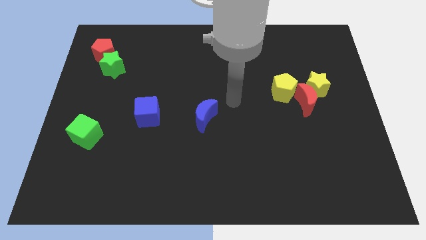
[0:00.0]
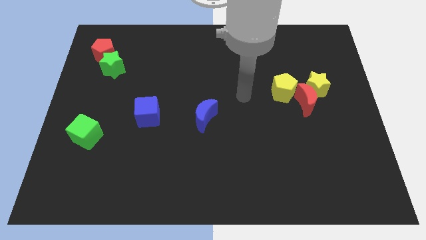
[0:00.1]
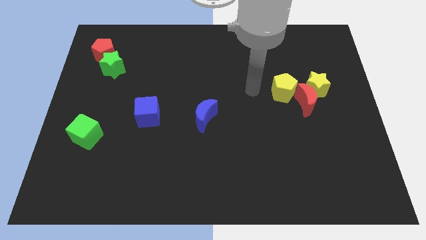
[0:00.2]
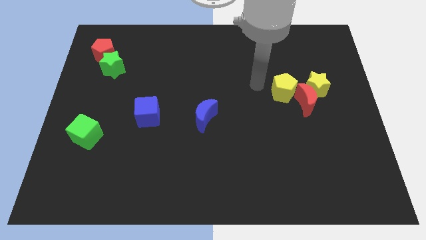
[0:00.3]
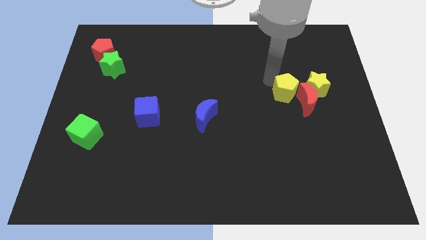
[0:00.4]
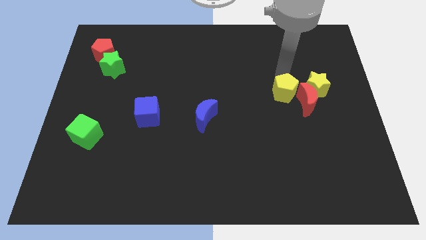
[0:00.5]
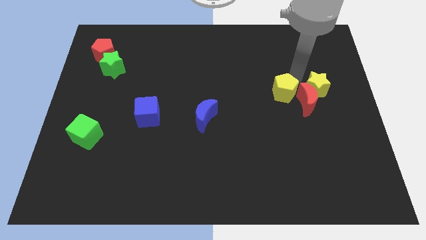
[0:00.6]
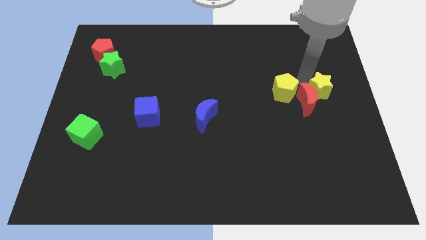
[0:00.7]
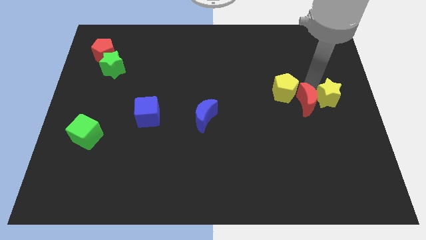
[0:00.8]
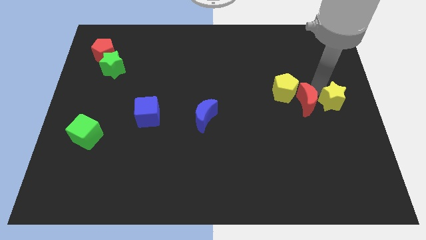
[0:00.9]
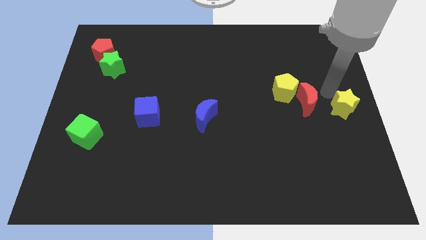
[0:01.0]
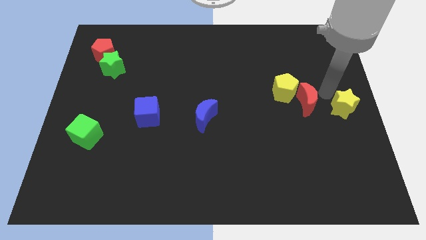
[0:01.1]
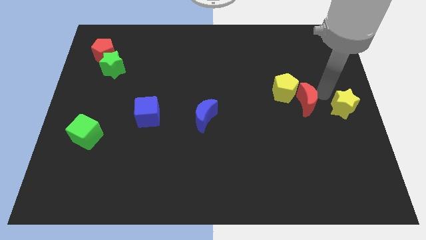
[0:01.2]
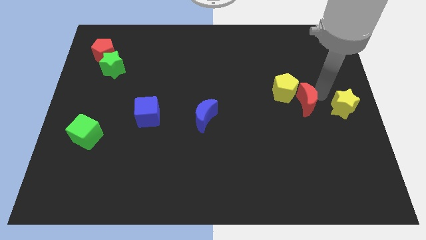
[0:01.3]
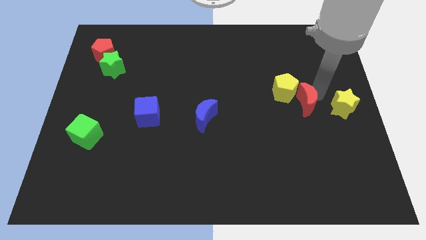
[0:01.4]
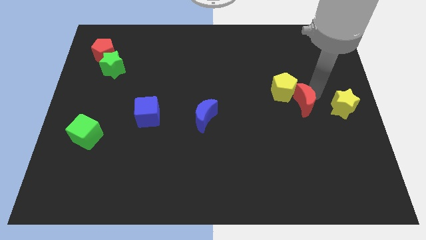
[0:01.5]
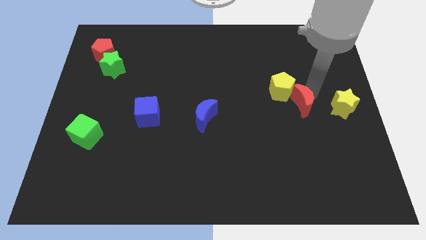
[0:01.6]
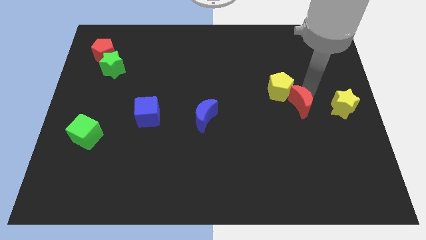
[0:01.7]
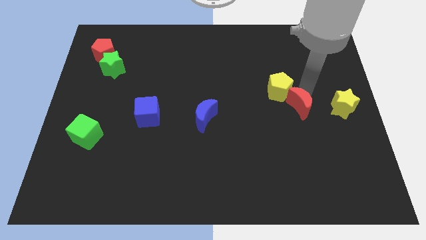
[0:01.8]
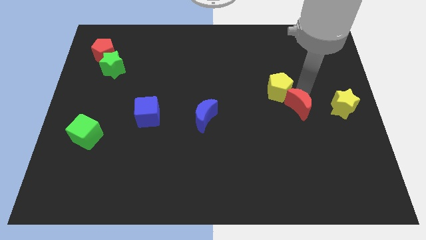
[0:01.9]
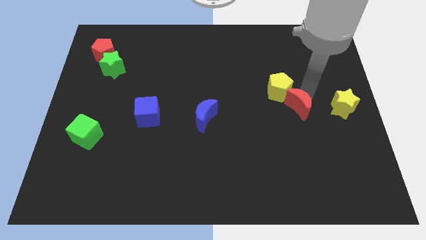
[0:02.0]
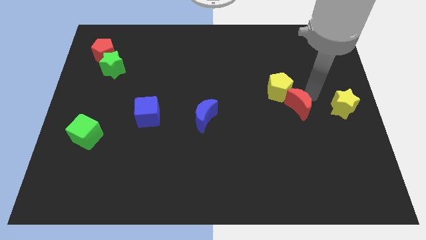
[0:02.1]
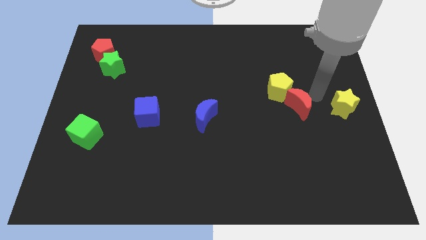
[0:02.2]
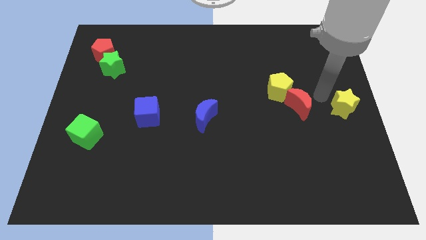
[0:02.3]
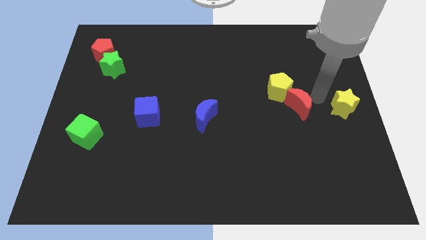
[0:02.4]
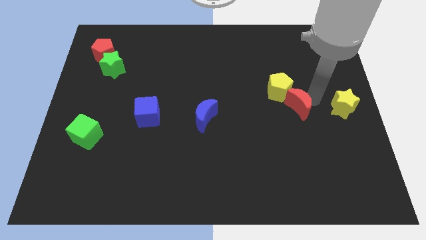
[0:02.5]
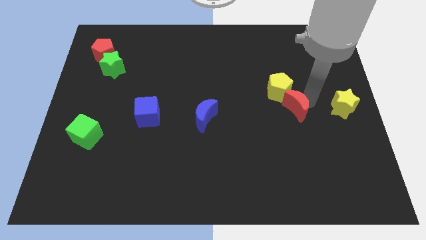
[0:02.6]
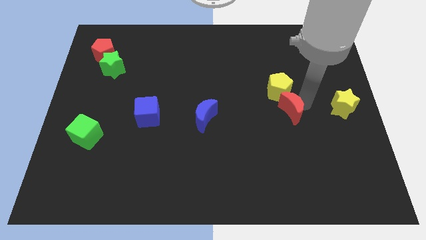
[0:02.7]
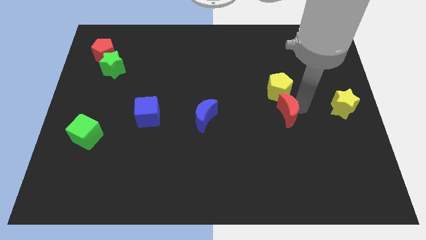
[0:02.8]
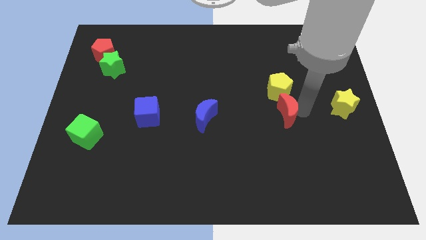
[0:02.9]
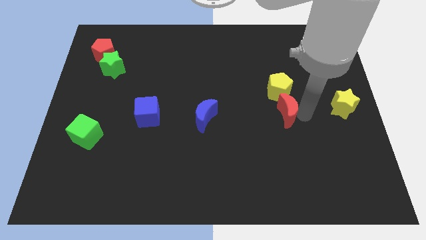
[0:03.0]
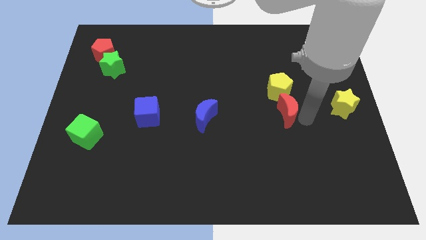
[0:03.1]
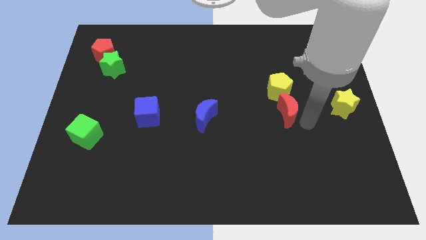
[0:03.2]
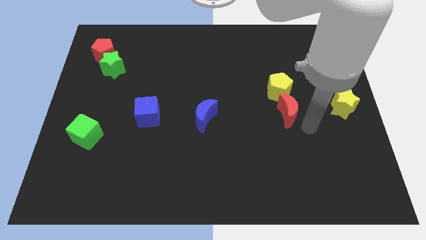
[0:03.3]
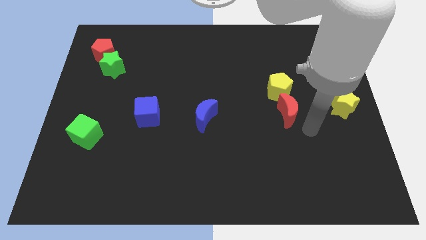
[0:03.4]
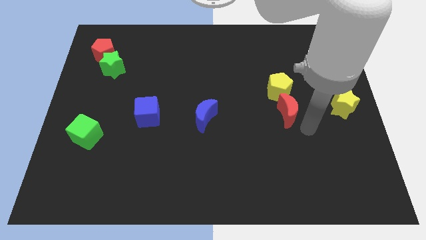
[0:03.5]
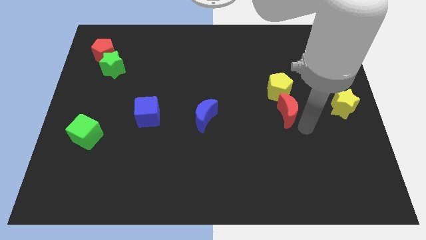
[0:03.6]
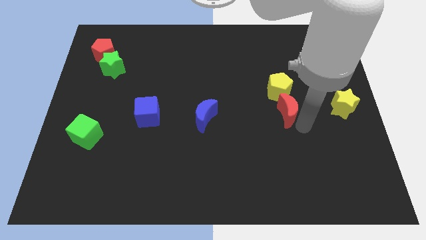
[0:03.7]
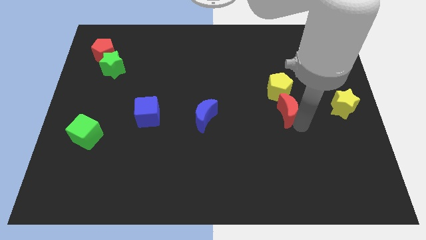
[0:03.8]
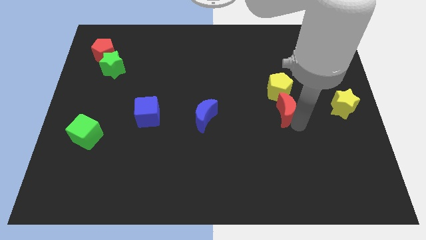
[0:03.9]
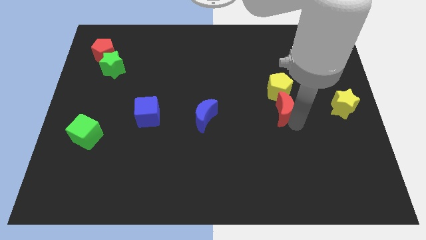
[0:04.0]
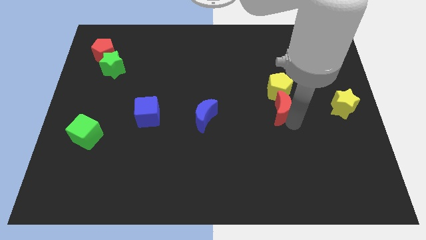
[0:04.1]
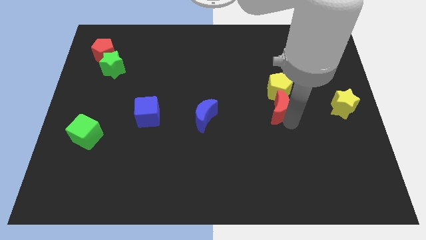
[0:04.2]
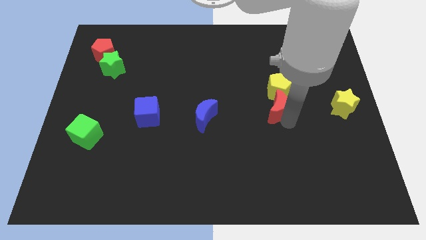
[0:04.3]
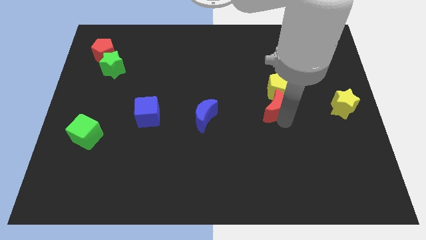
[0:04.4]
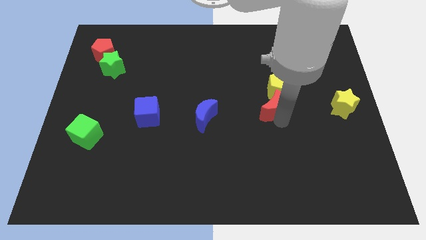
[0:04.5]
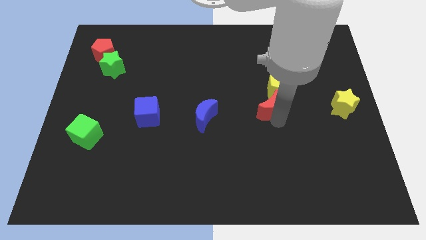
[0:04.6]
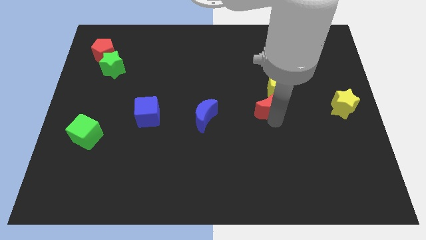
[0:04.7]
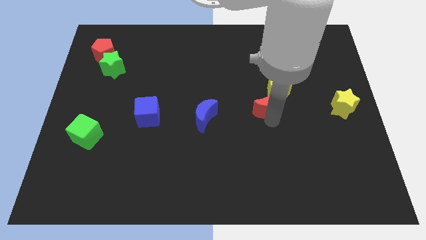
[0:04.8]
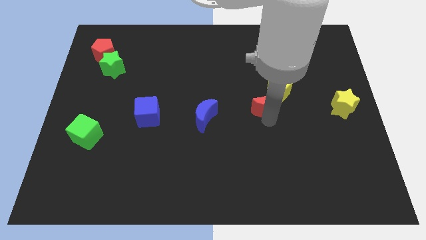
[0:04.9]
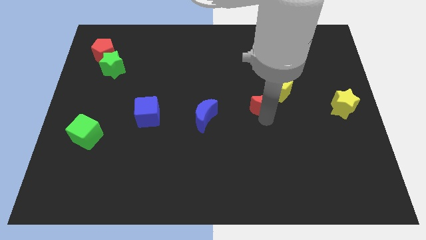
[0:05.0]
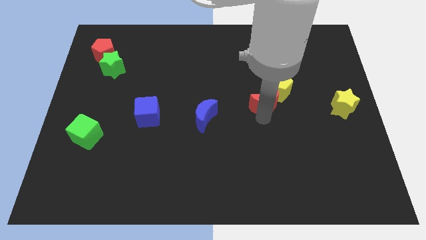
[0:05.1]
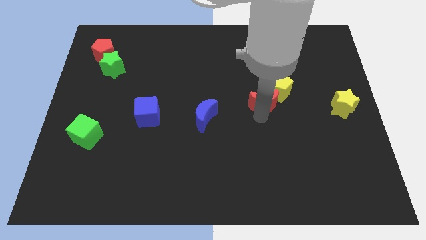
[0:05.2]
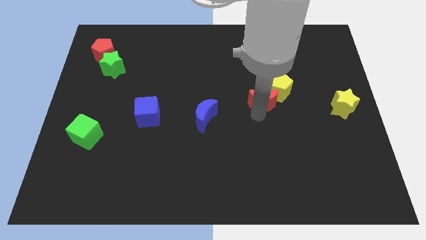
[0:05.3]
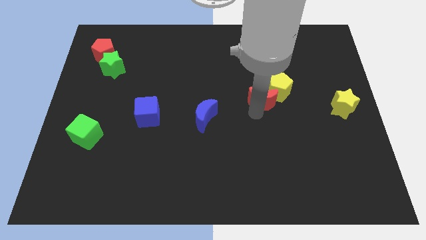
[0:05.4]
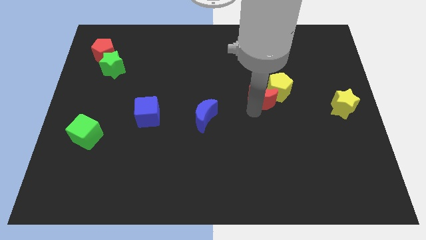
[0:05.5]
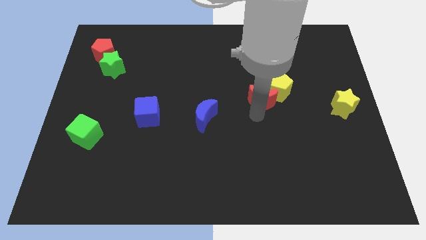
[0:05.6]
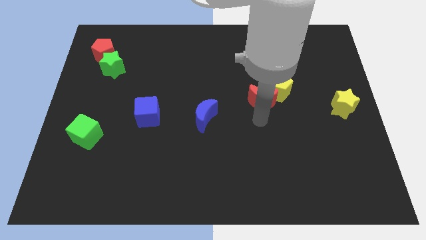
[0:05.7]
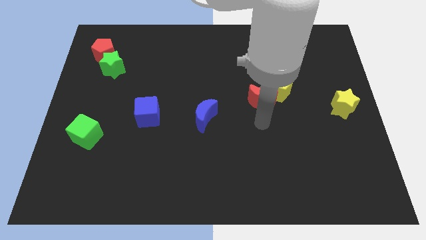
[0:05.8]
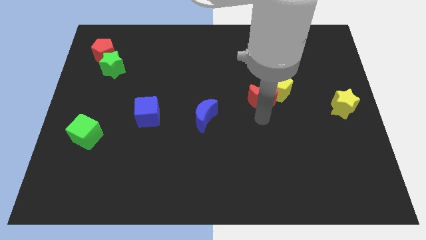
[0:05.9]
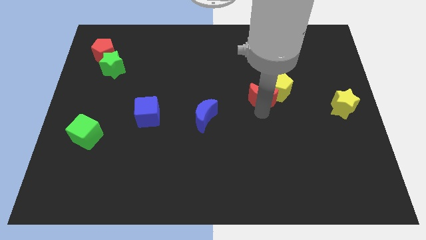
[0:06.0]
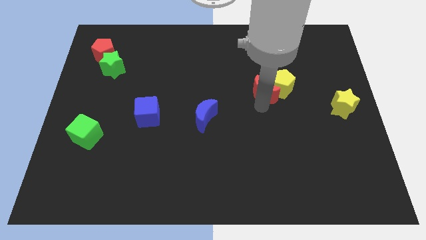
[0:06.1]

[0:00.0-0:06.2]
slide the red moon up and then left a little bit

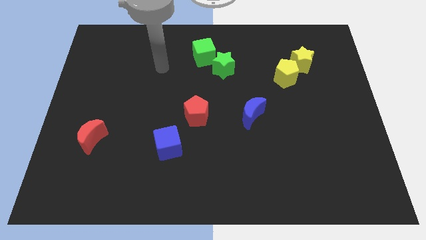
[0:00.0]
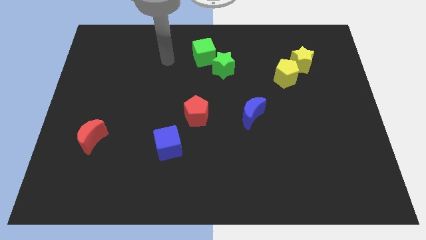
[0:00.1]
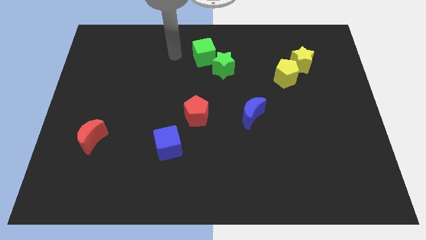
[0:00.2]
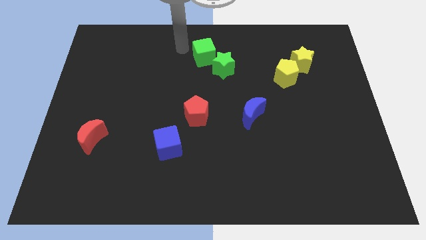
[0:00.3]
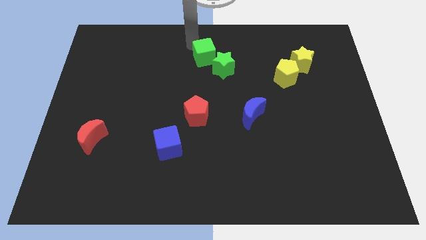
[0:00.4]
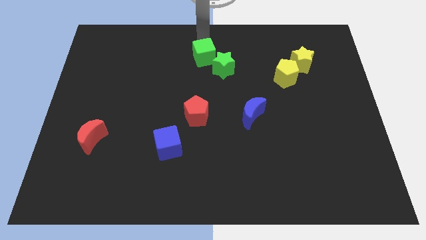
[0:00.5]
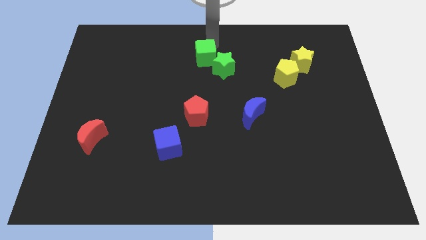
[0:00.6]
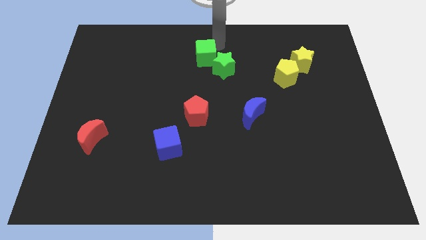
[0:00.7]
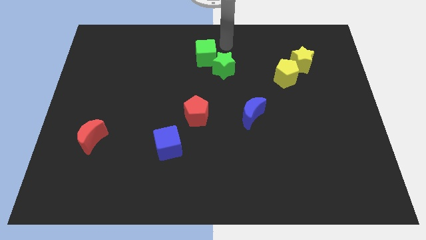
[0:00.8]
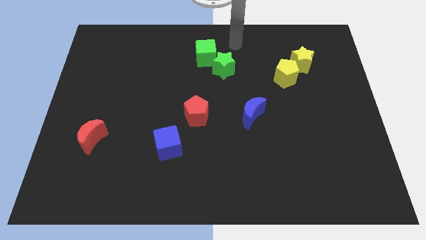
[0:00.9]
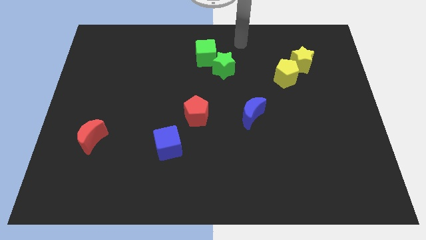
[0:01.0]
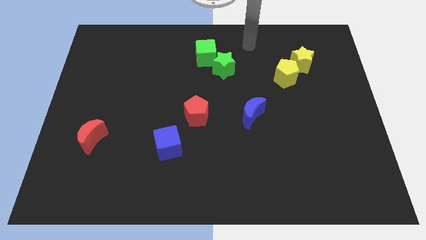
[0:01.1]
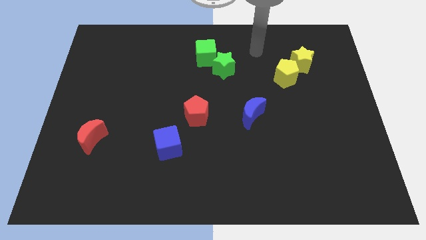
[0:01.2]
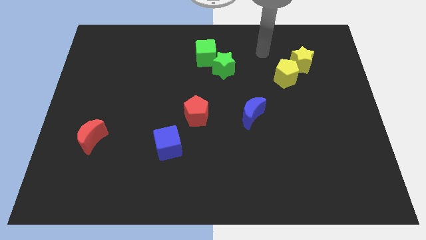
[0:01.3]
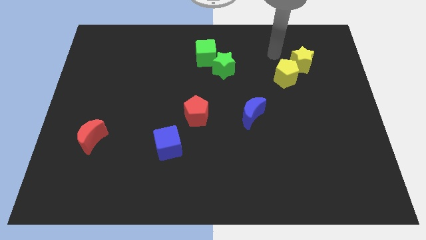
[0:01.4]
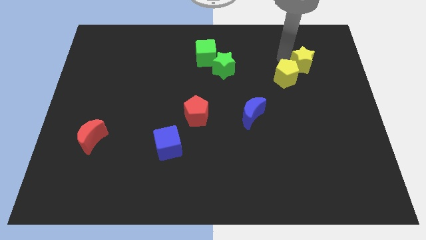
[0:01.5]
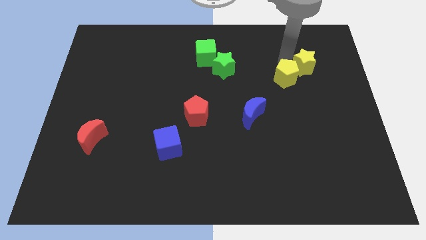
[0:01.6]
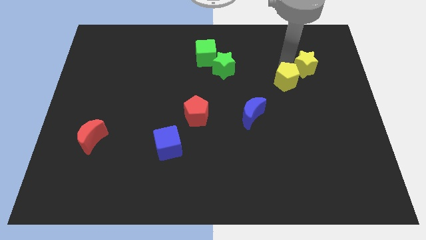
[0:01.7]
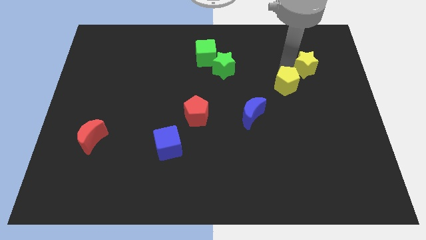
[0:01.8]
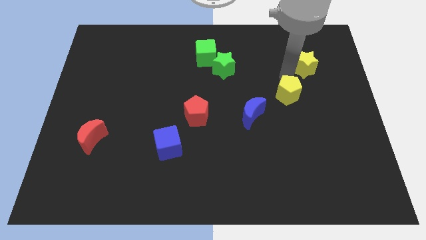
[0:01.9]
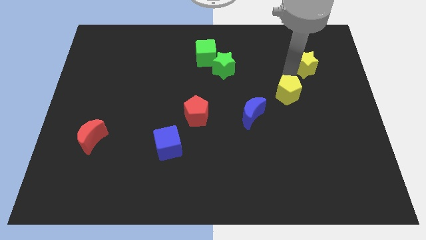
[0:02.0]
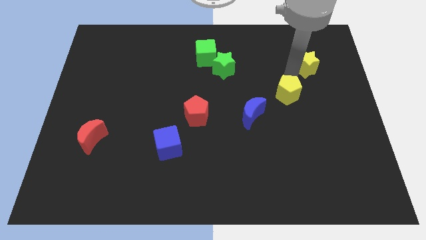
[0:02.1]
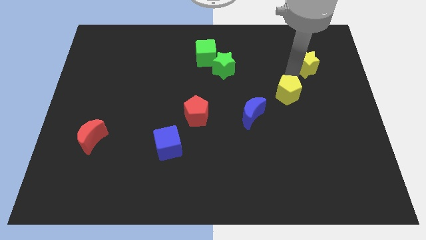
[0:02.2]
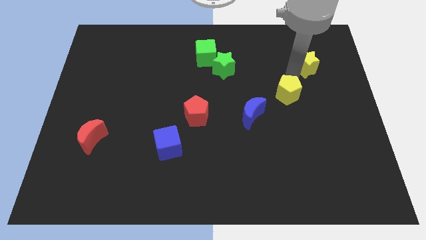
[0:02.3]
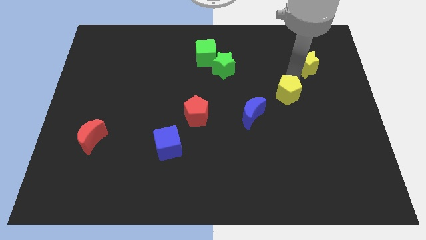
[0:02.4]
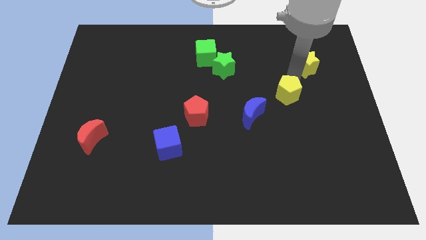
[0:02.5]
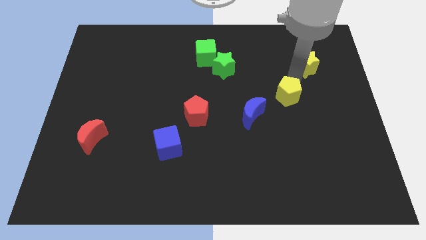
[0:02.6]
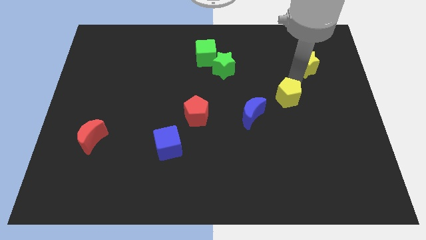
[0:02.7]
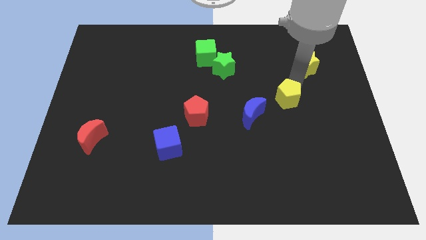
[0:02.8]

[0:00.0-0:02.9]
slightly push the yellow pentagon down
